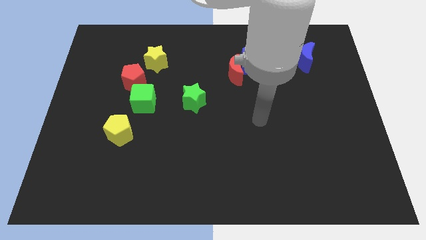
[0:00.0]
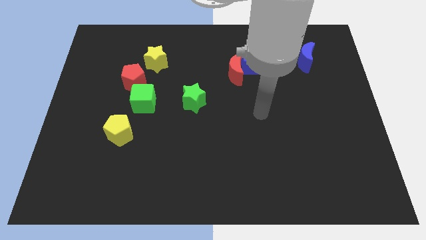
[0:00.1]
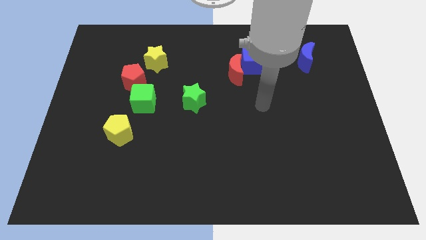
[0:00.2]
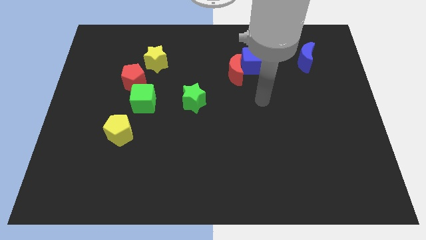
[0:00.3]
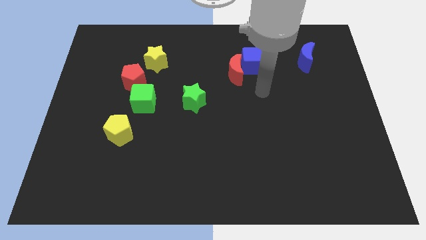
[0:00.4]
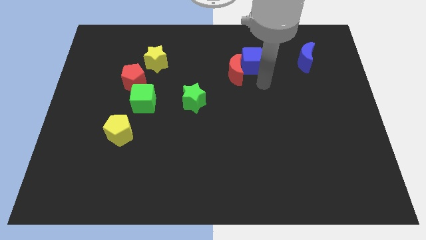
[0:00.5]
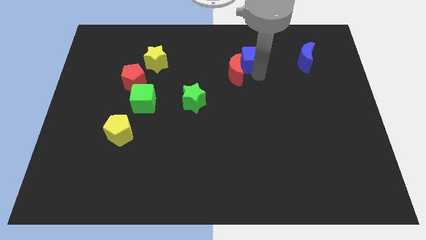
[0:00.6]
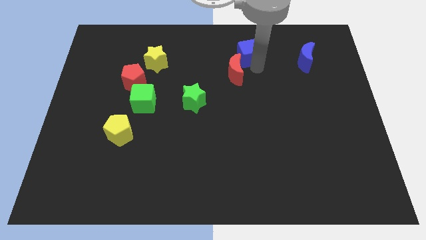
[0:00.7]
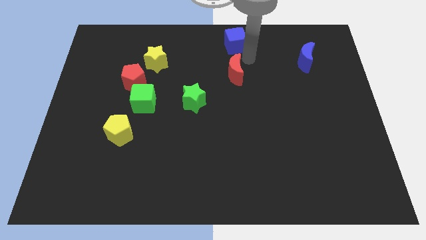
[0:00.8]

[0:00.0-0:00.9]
move the red moon away from the blue cube

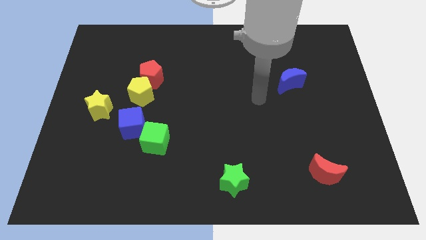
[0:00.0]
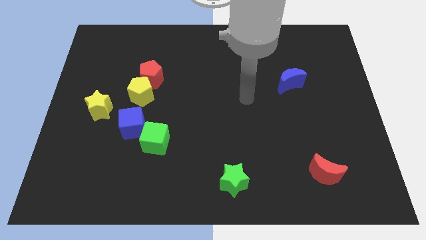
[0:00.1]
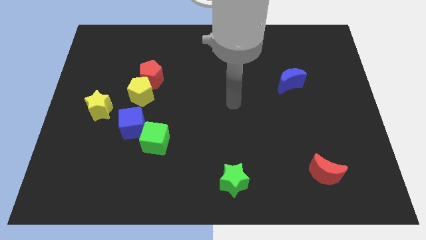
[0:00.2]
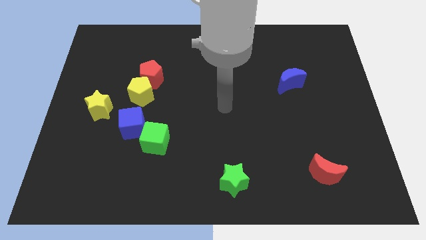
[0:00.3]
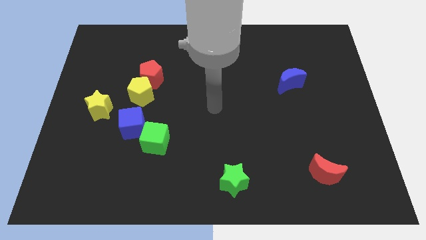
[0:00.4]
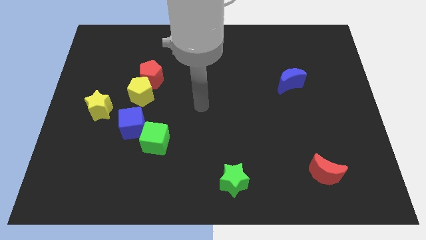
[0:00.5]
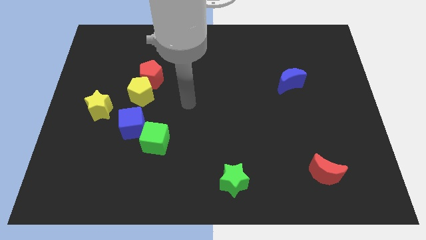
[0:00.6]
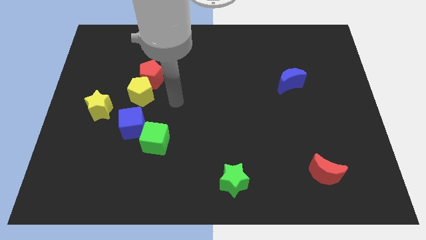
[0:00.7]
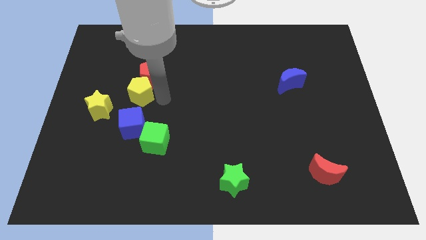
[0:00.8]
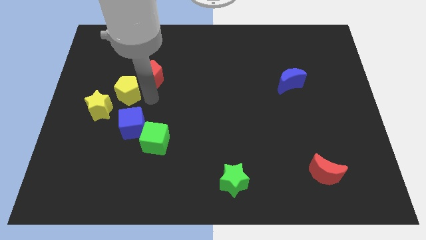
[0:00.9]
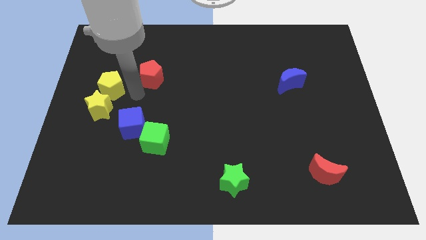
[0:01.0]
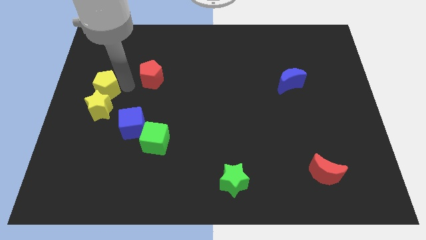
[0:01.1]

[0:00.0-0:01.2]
separate the red pentagon from the yellow pentagon

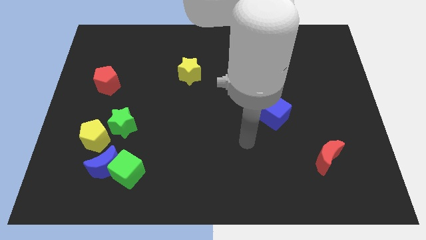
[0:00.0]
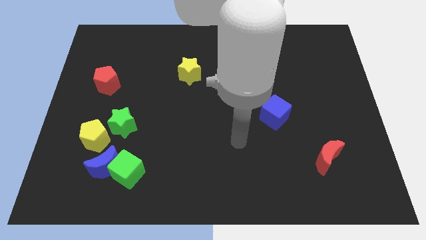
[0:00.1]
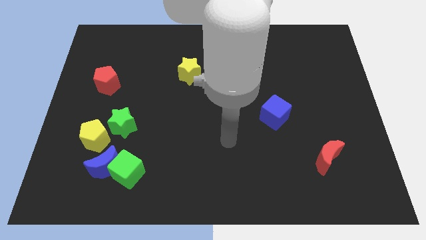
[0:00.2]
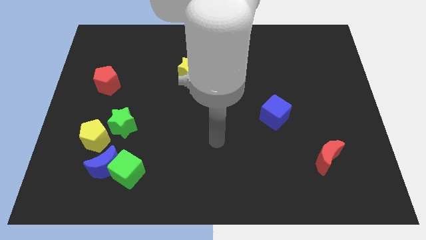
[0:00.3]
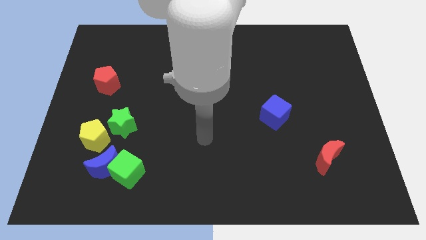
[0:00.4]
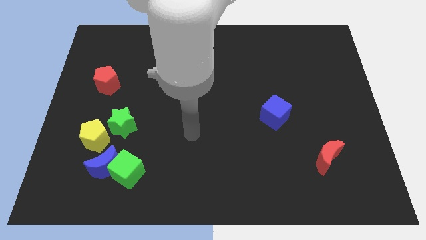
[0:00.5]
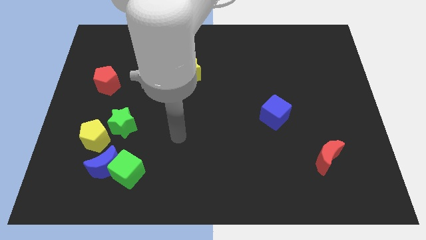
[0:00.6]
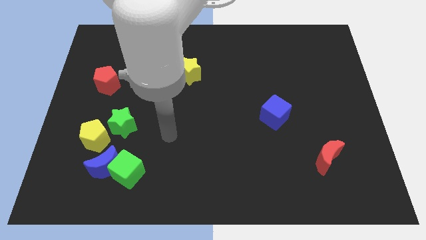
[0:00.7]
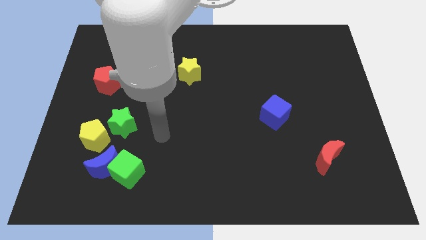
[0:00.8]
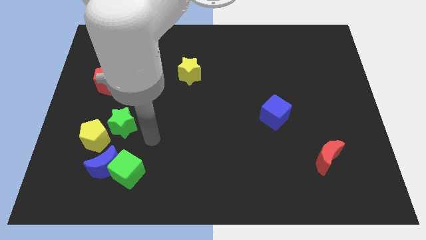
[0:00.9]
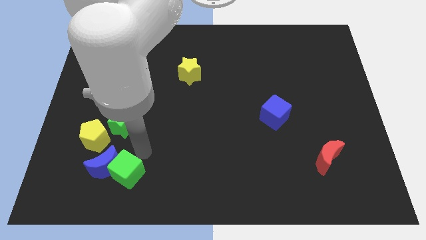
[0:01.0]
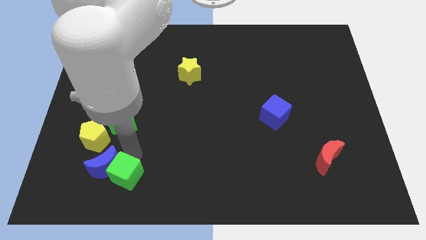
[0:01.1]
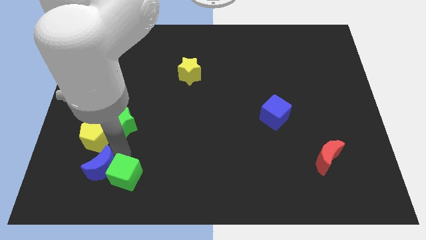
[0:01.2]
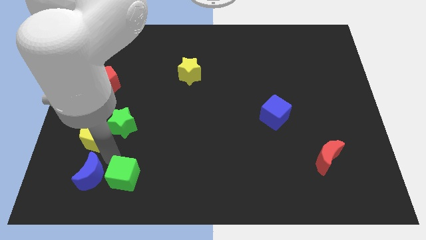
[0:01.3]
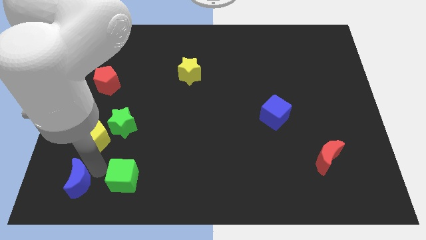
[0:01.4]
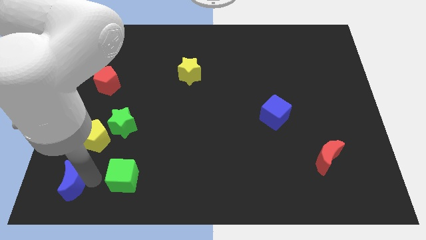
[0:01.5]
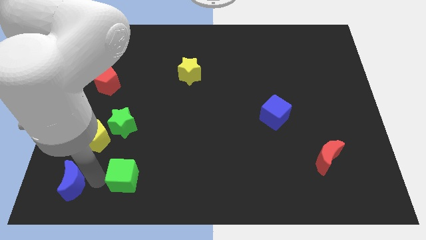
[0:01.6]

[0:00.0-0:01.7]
separate the green cube from the blue moon

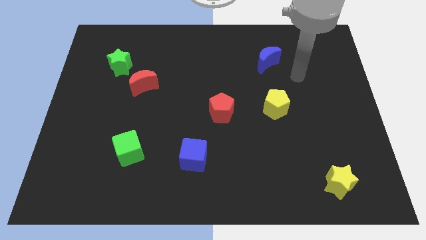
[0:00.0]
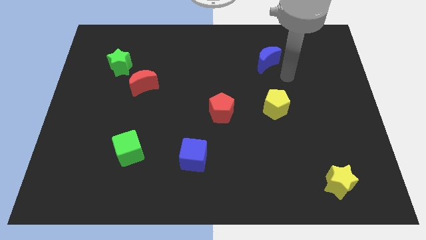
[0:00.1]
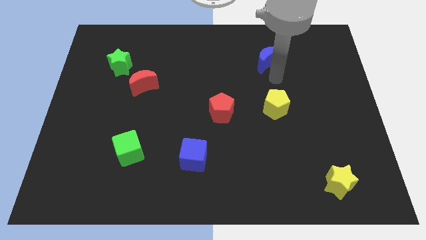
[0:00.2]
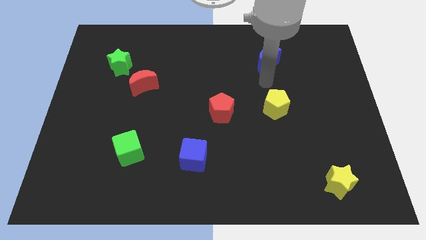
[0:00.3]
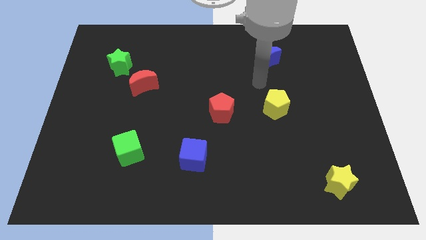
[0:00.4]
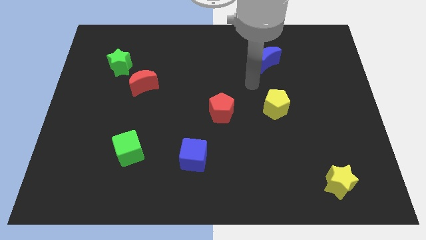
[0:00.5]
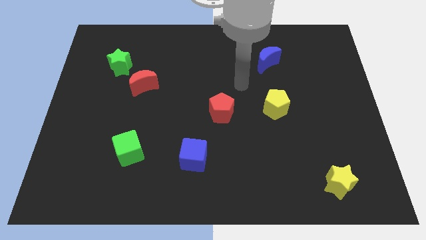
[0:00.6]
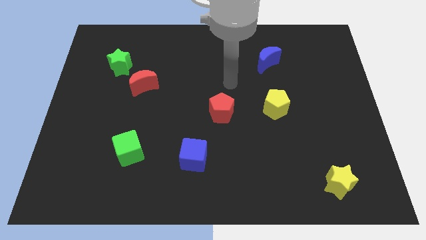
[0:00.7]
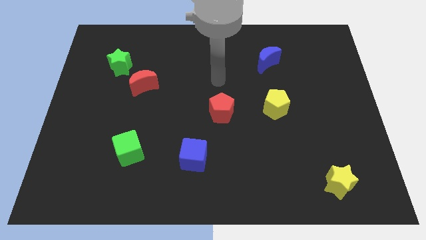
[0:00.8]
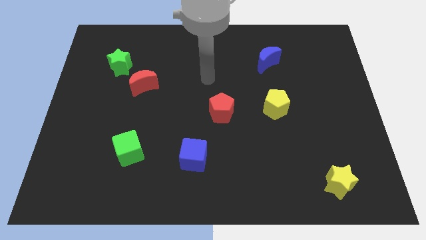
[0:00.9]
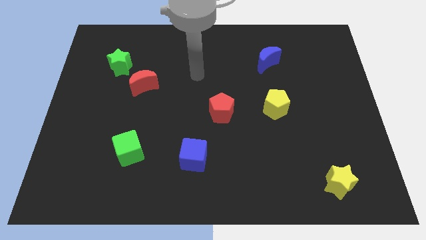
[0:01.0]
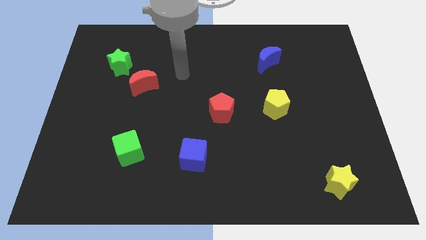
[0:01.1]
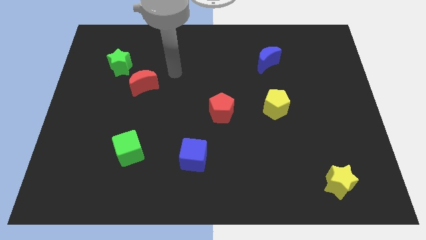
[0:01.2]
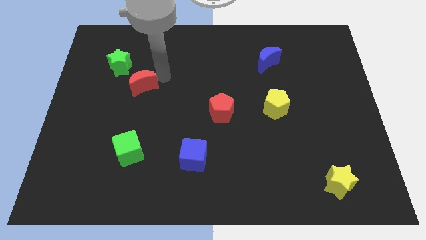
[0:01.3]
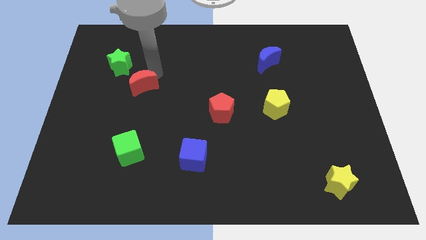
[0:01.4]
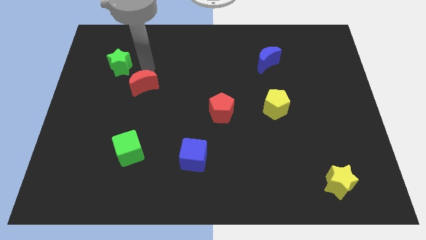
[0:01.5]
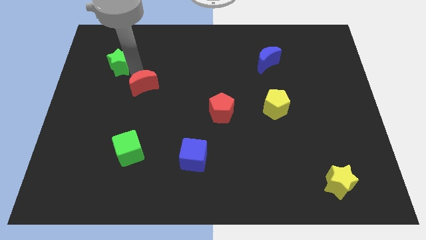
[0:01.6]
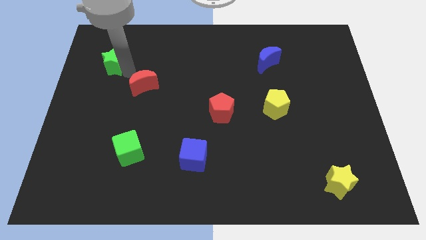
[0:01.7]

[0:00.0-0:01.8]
move the red moon away from the green star

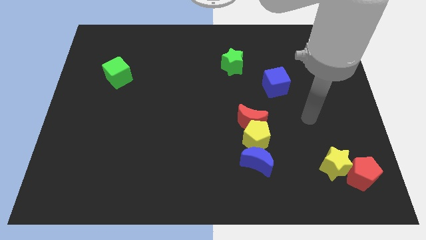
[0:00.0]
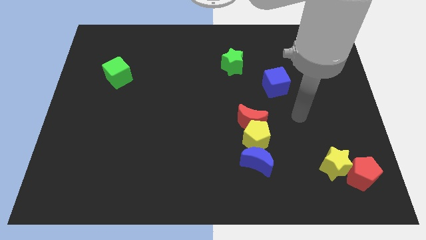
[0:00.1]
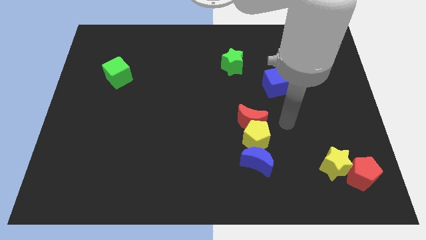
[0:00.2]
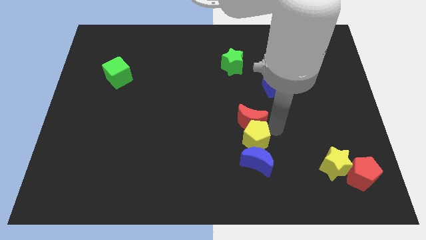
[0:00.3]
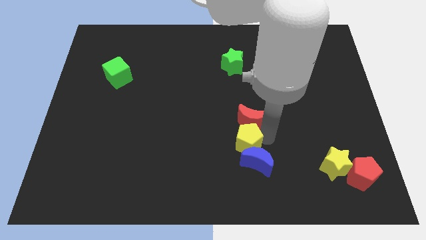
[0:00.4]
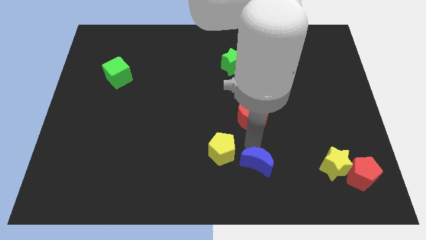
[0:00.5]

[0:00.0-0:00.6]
move the red moon away from the yellow pentagon

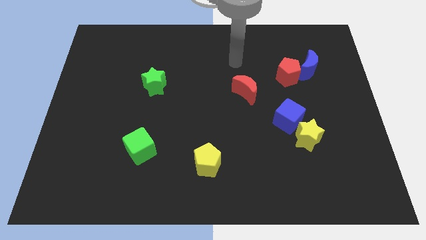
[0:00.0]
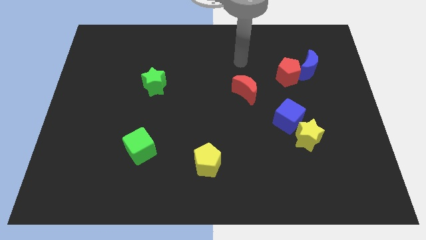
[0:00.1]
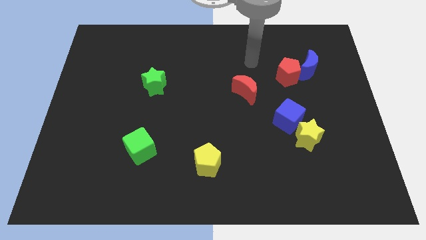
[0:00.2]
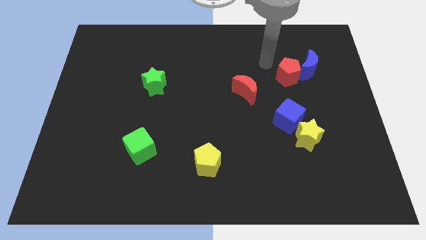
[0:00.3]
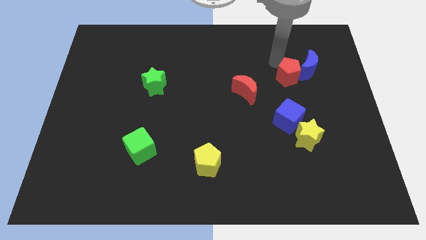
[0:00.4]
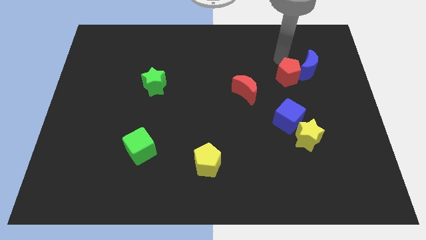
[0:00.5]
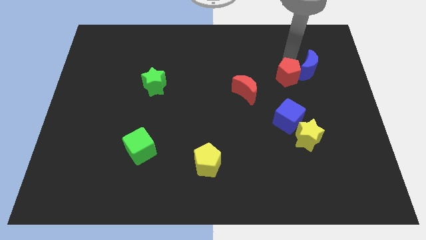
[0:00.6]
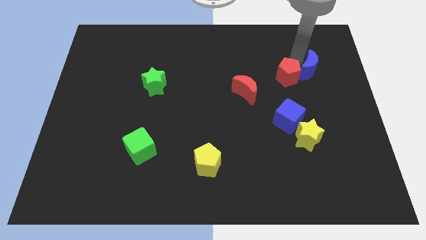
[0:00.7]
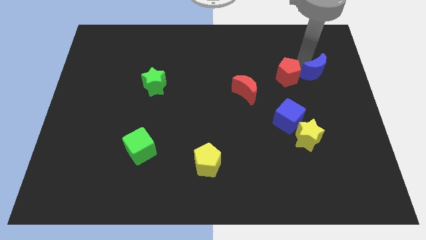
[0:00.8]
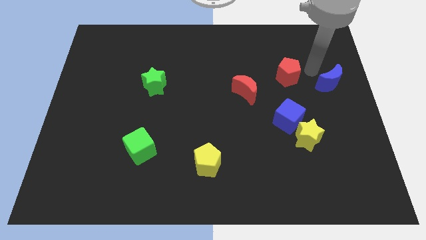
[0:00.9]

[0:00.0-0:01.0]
move the red pentagon away from the blue moon

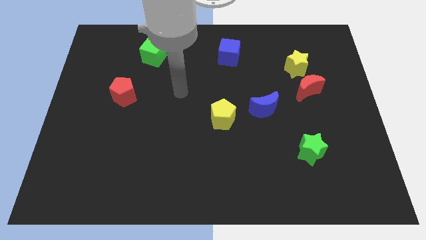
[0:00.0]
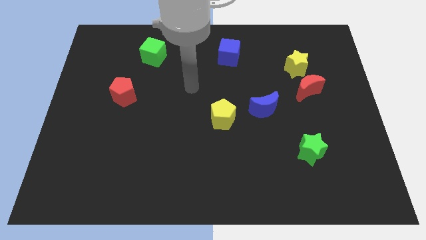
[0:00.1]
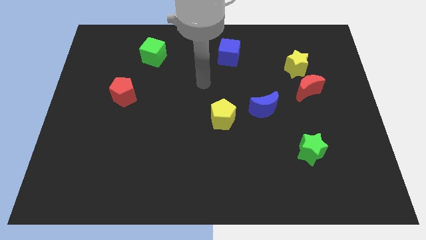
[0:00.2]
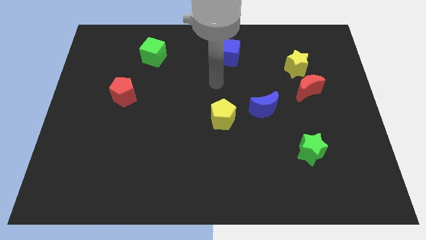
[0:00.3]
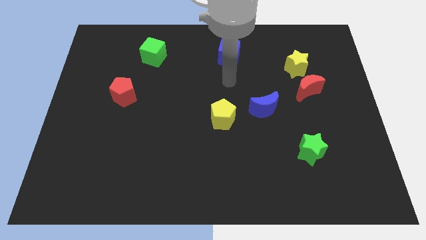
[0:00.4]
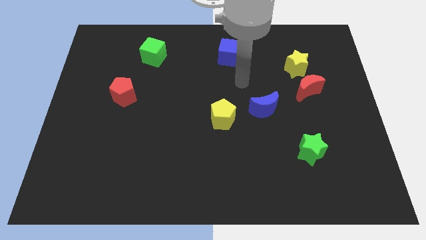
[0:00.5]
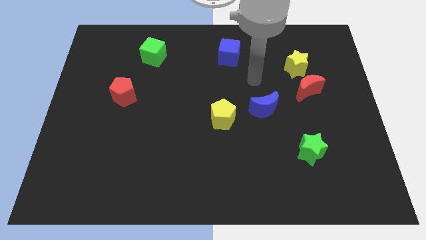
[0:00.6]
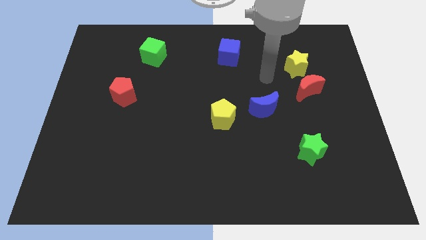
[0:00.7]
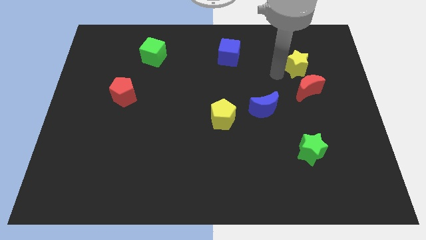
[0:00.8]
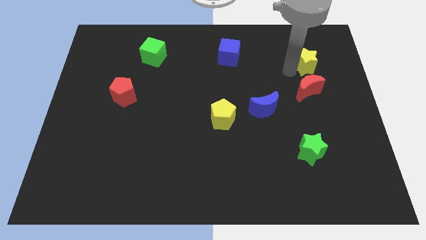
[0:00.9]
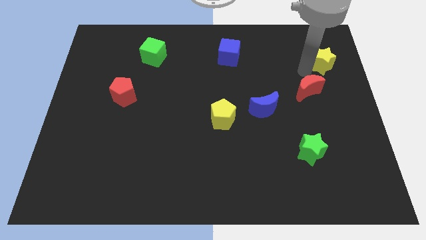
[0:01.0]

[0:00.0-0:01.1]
separate the red moon from the yellow star

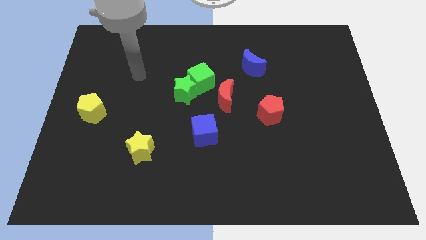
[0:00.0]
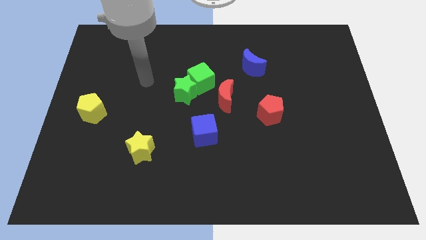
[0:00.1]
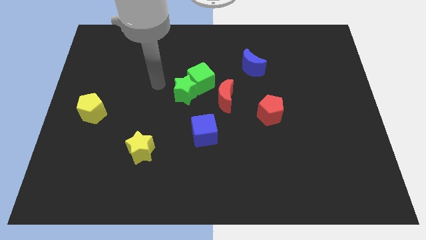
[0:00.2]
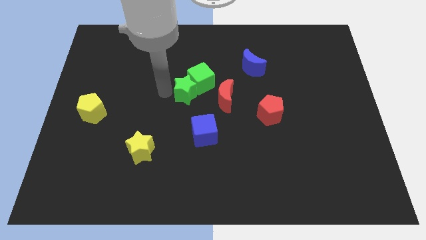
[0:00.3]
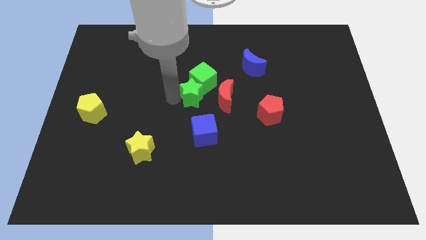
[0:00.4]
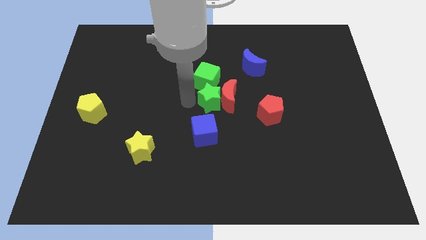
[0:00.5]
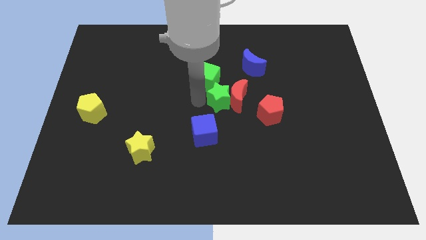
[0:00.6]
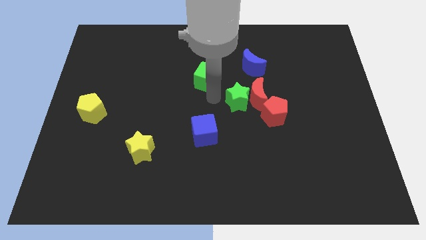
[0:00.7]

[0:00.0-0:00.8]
move the green cube away from the green star and red moon
